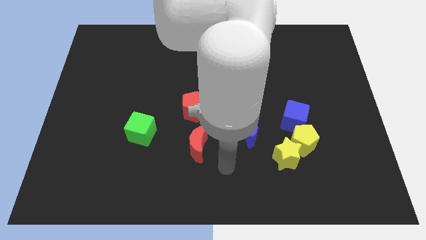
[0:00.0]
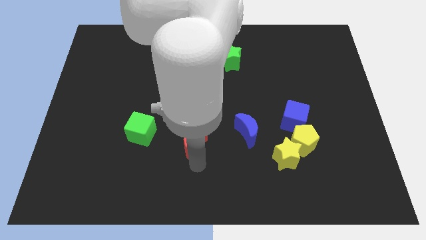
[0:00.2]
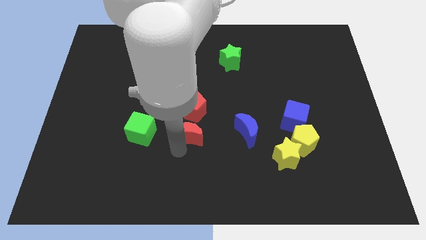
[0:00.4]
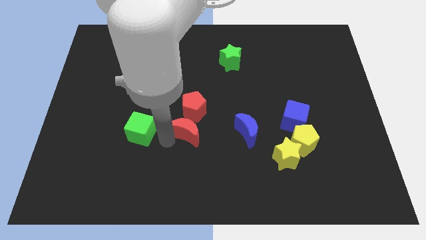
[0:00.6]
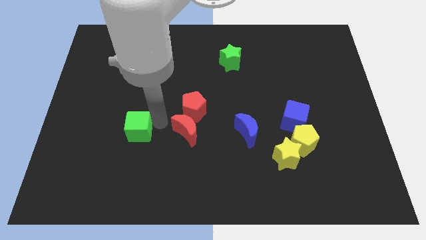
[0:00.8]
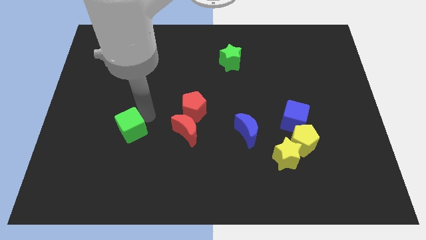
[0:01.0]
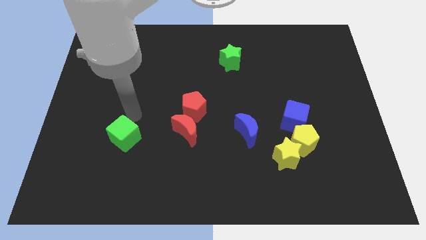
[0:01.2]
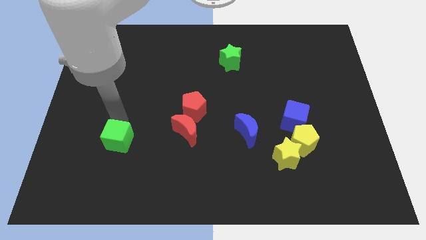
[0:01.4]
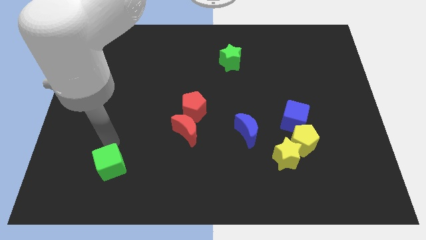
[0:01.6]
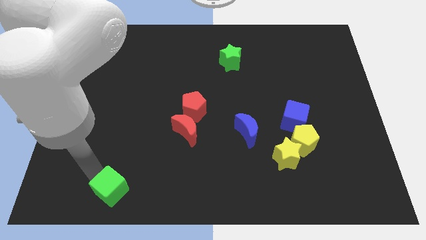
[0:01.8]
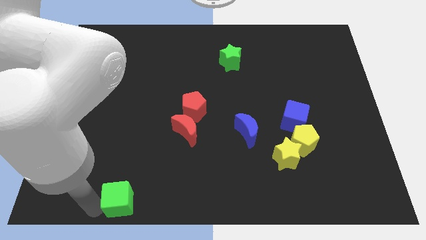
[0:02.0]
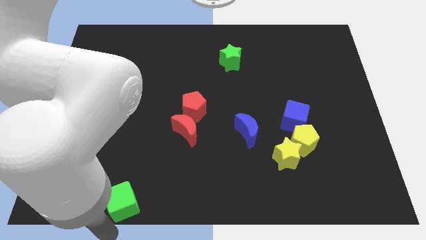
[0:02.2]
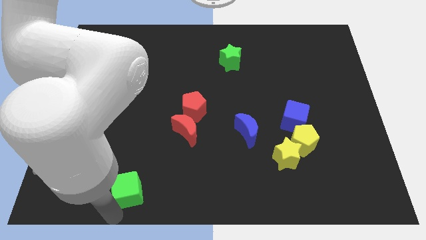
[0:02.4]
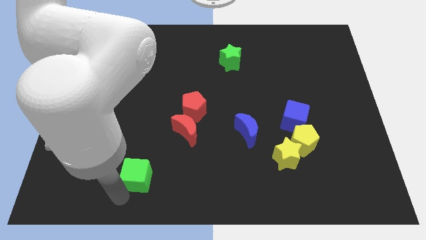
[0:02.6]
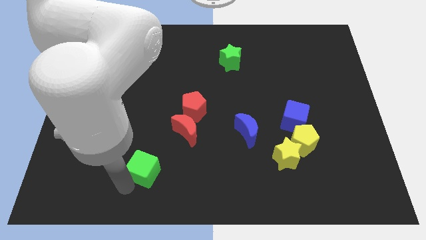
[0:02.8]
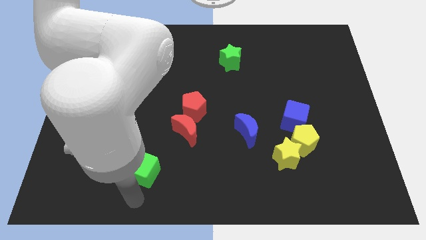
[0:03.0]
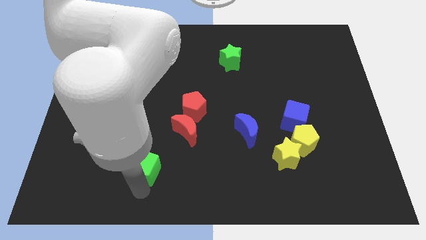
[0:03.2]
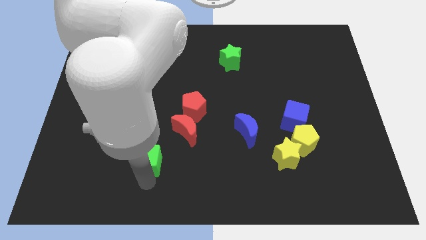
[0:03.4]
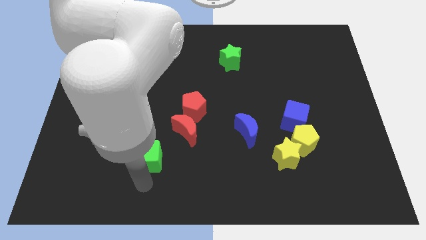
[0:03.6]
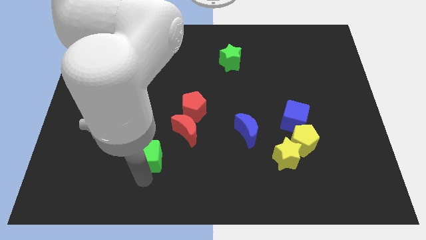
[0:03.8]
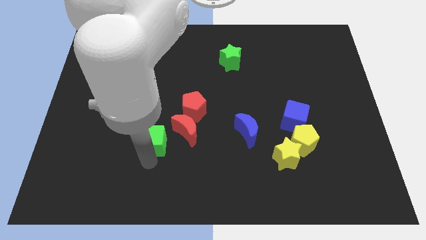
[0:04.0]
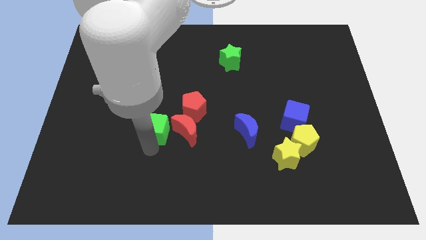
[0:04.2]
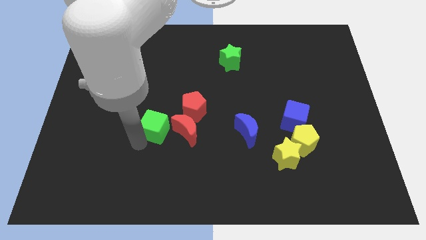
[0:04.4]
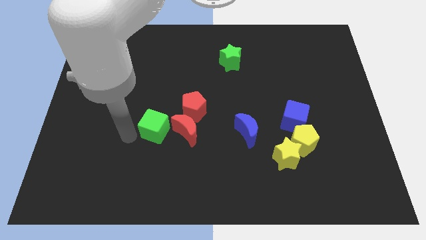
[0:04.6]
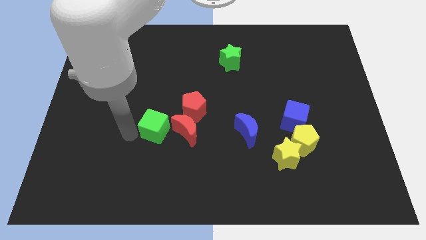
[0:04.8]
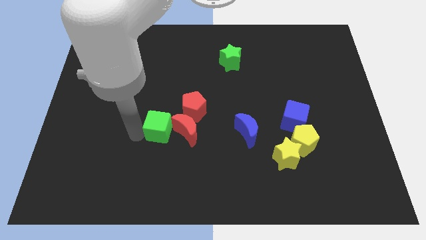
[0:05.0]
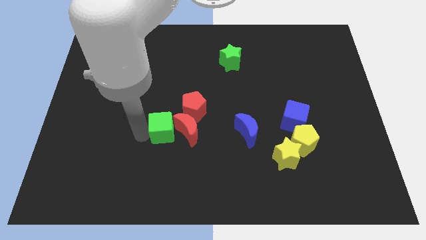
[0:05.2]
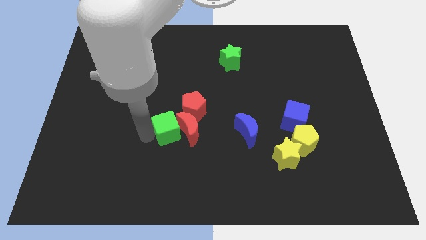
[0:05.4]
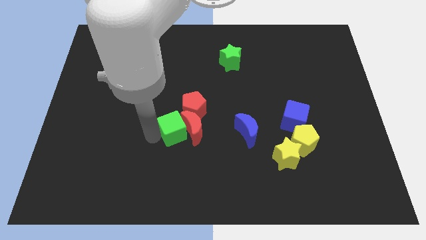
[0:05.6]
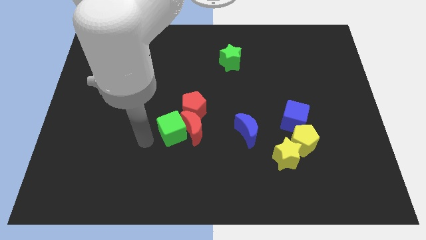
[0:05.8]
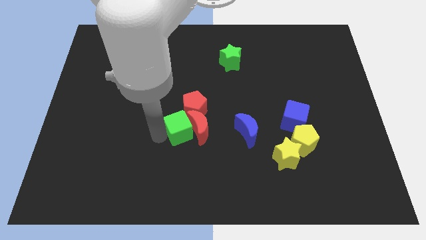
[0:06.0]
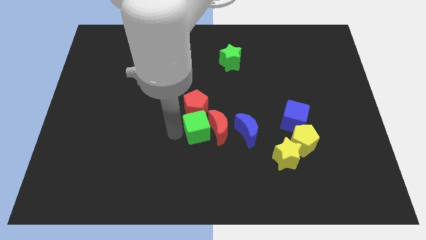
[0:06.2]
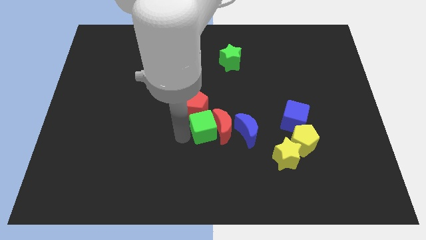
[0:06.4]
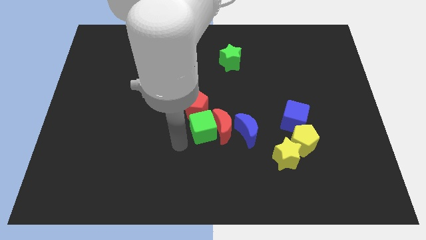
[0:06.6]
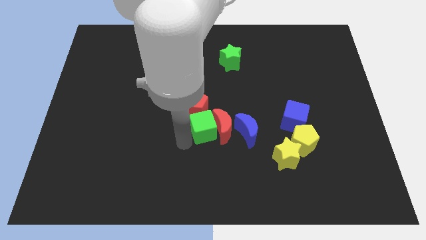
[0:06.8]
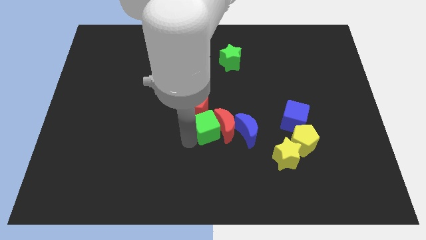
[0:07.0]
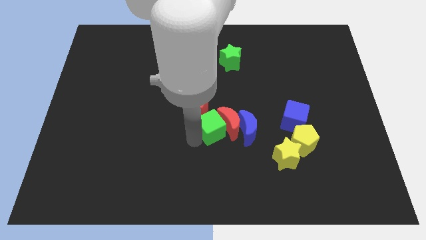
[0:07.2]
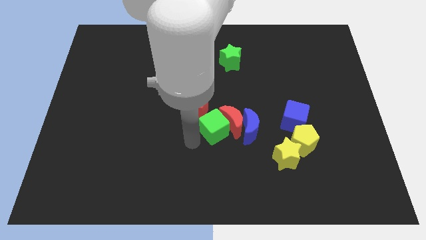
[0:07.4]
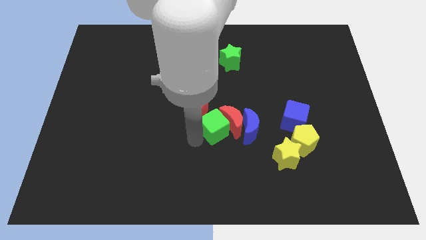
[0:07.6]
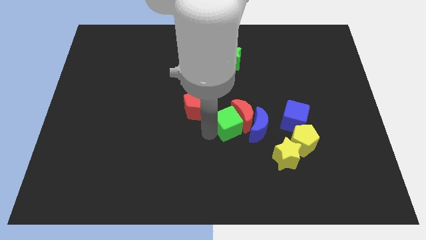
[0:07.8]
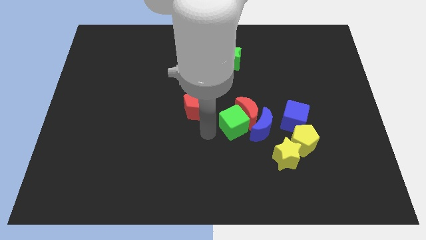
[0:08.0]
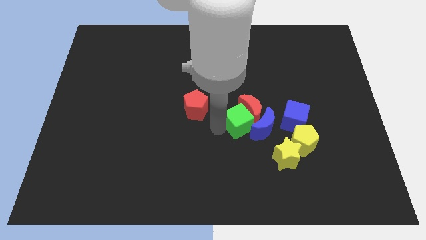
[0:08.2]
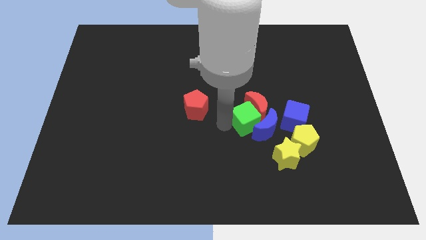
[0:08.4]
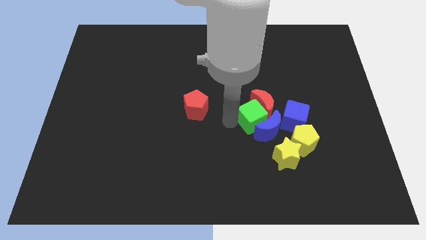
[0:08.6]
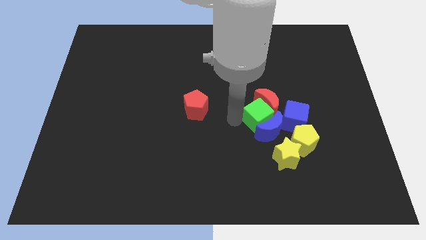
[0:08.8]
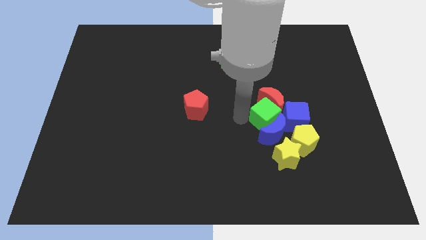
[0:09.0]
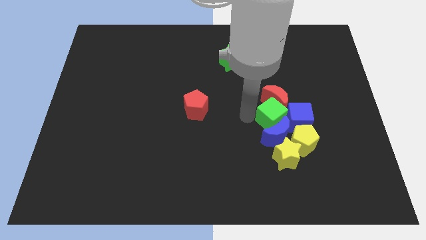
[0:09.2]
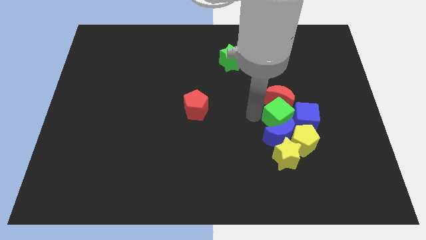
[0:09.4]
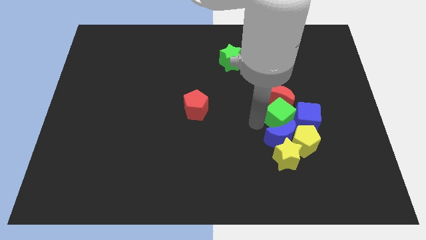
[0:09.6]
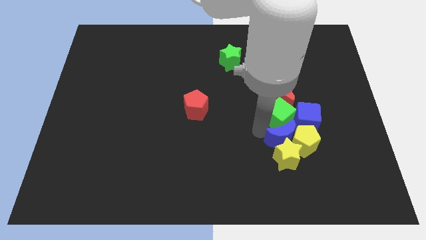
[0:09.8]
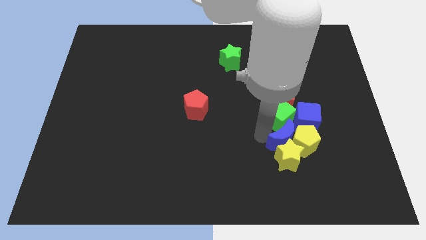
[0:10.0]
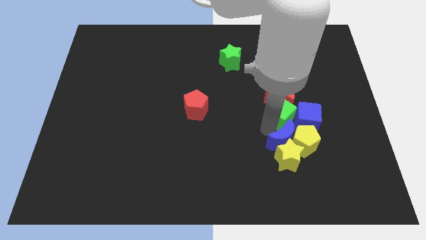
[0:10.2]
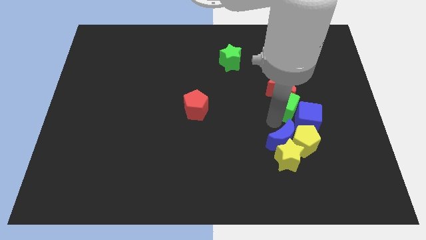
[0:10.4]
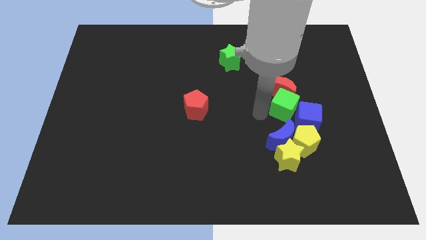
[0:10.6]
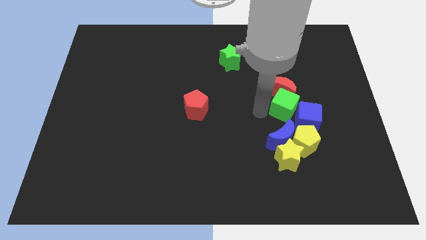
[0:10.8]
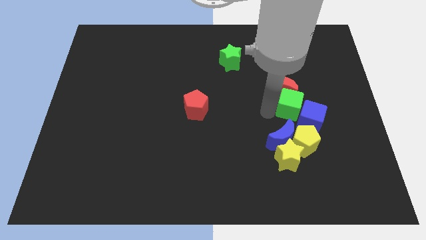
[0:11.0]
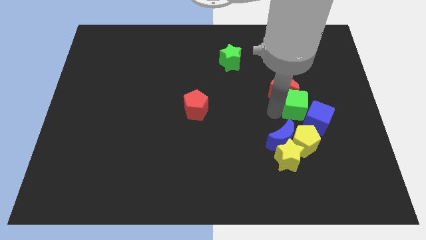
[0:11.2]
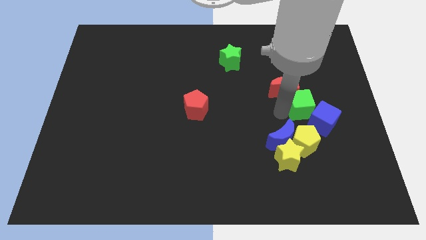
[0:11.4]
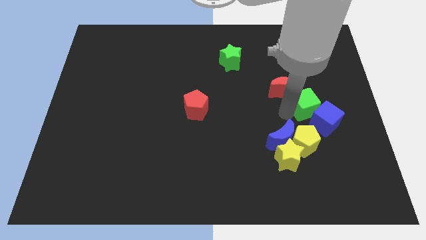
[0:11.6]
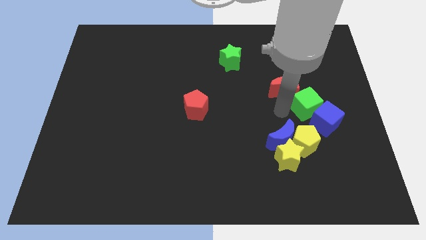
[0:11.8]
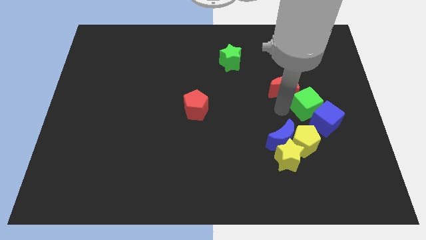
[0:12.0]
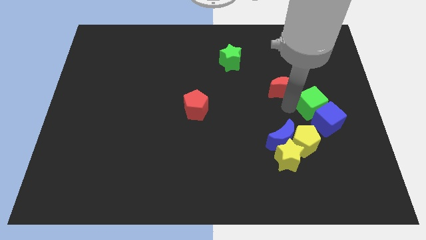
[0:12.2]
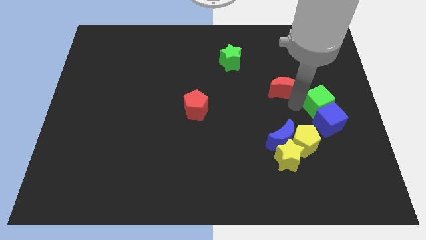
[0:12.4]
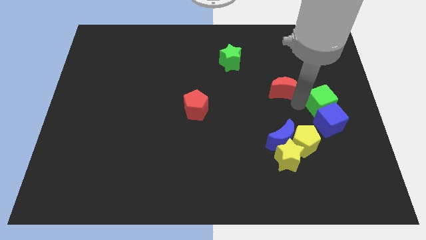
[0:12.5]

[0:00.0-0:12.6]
slide the green cube to the center right
